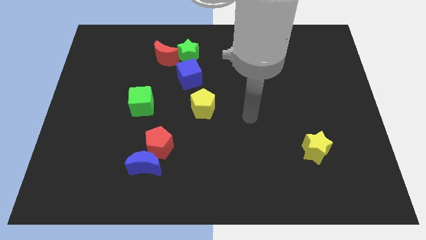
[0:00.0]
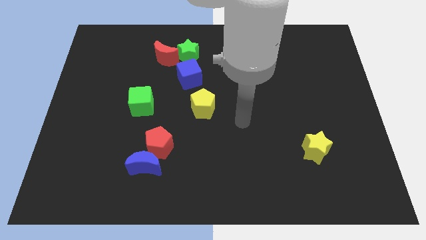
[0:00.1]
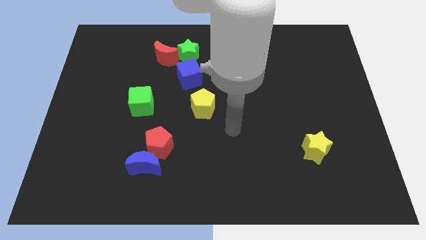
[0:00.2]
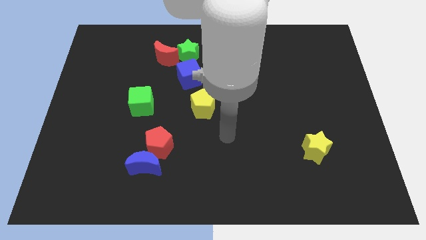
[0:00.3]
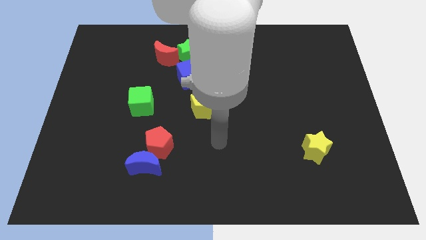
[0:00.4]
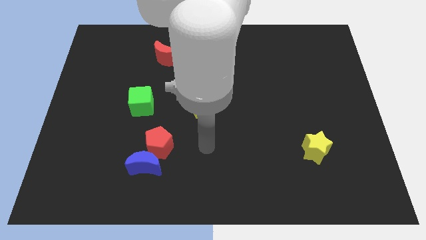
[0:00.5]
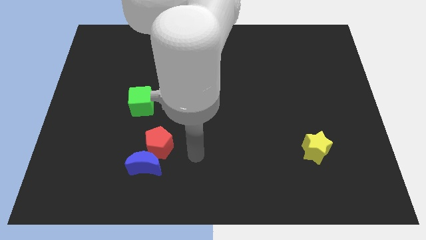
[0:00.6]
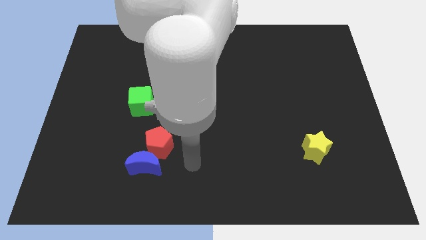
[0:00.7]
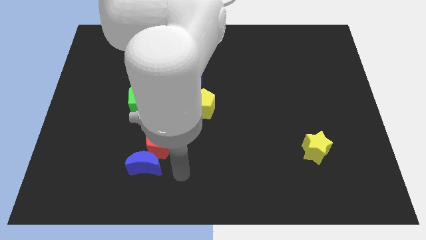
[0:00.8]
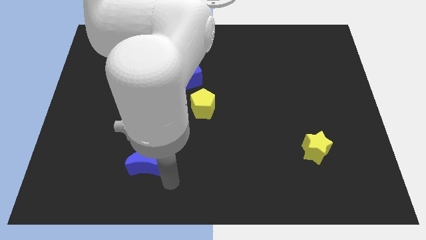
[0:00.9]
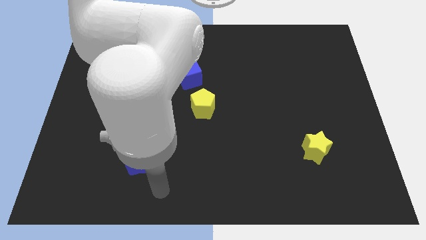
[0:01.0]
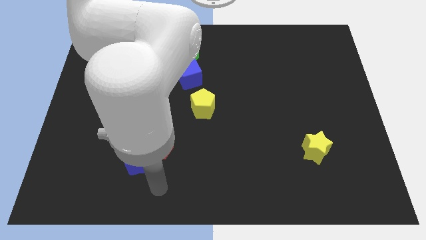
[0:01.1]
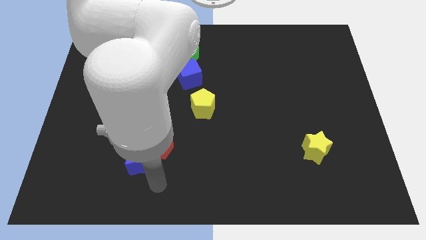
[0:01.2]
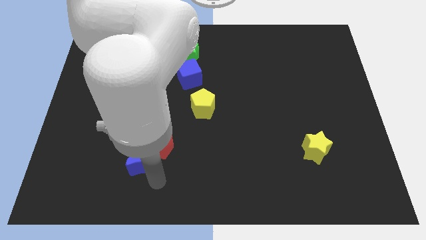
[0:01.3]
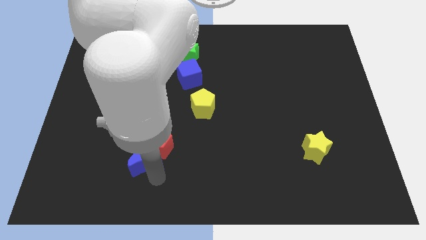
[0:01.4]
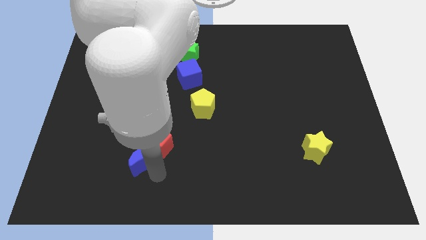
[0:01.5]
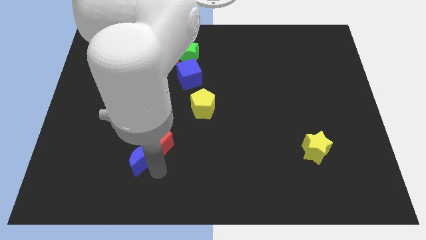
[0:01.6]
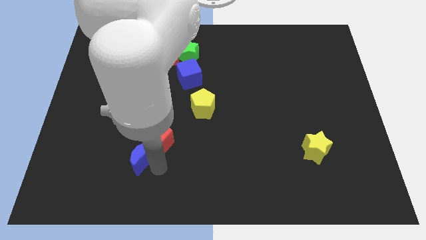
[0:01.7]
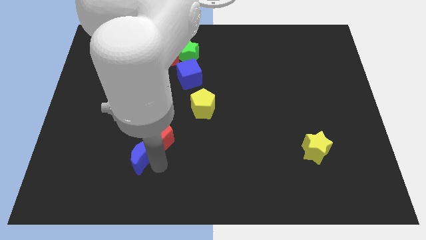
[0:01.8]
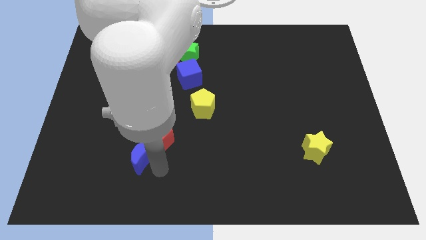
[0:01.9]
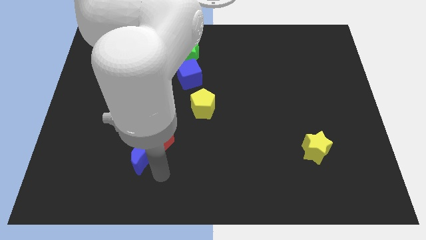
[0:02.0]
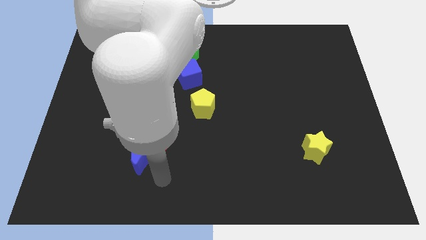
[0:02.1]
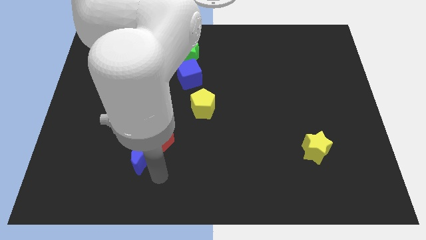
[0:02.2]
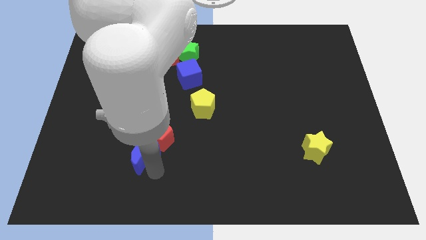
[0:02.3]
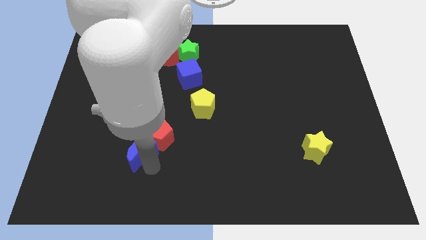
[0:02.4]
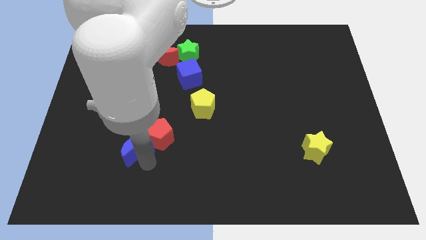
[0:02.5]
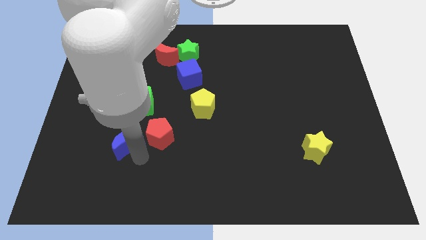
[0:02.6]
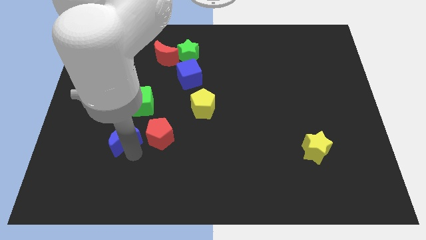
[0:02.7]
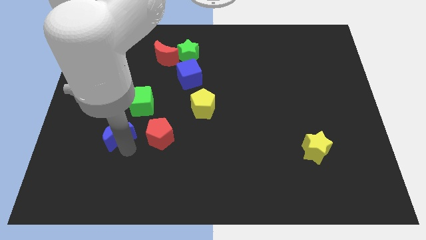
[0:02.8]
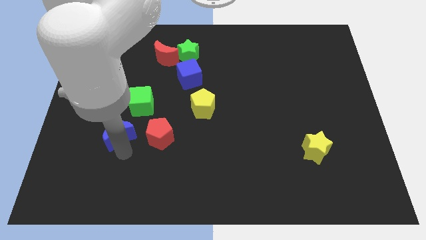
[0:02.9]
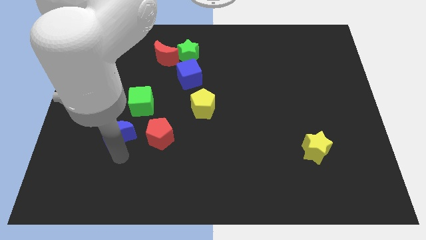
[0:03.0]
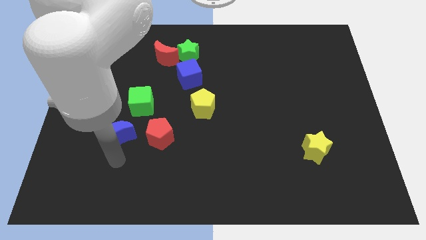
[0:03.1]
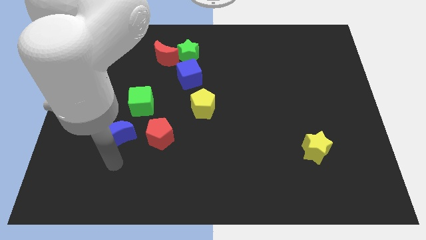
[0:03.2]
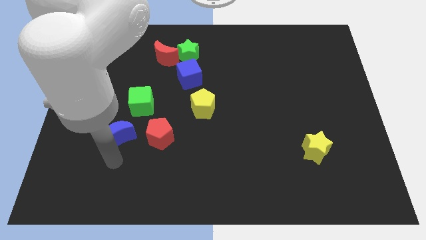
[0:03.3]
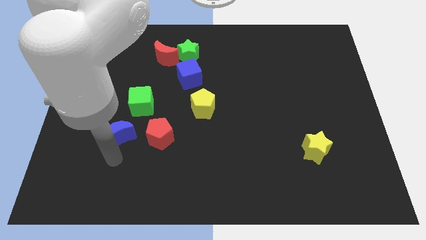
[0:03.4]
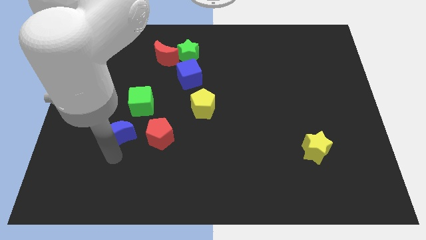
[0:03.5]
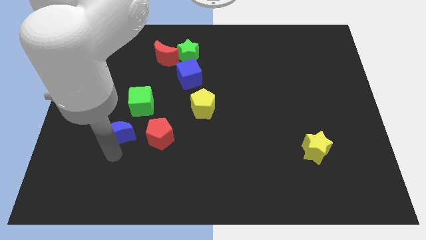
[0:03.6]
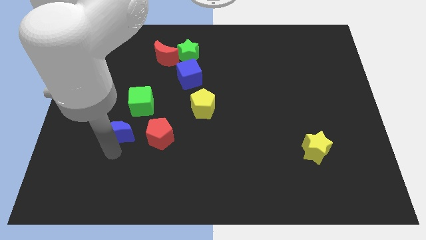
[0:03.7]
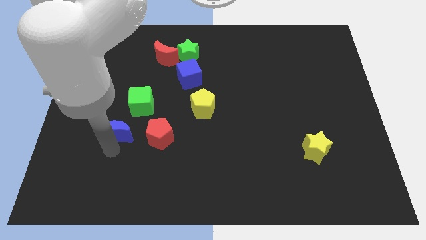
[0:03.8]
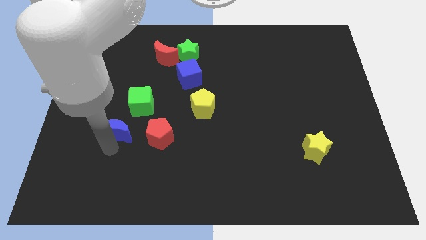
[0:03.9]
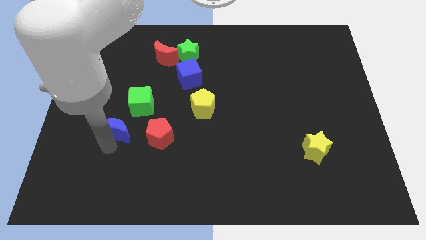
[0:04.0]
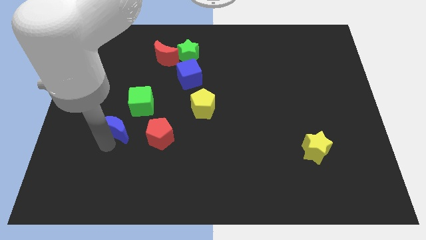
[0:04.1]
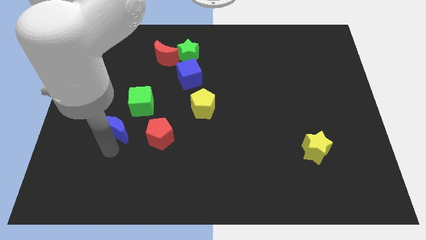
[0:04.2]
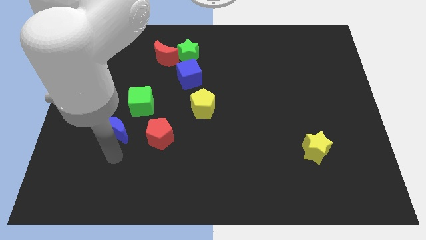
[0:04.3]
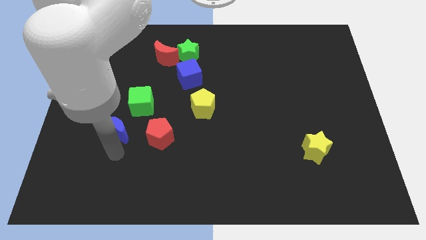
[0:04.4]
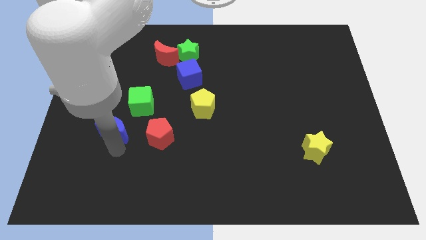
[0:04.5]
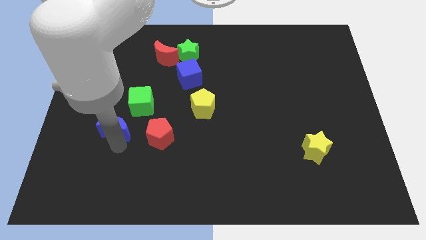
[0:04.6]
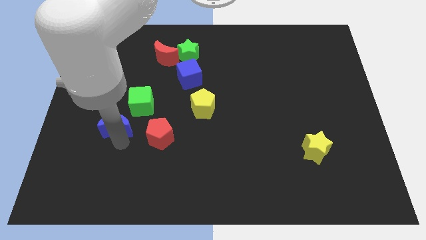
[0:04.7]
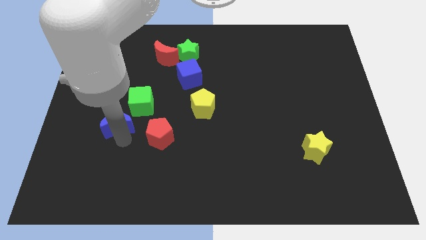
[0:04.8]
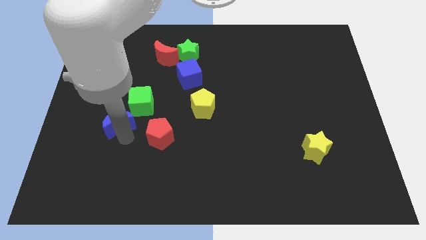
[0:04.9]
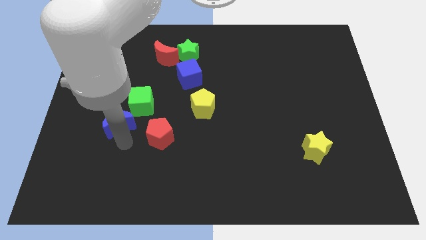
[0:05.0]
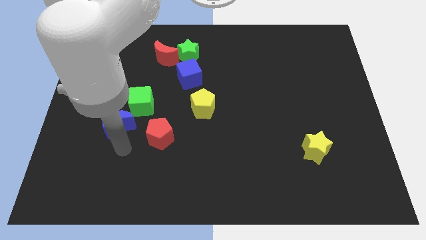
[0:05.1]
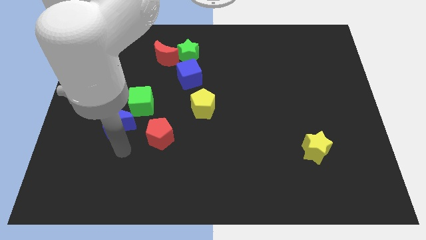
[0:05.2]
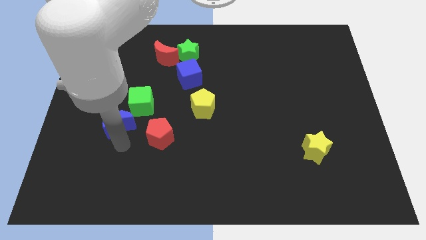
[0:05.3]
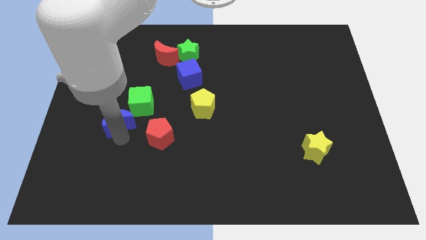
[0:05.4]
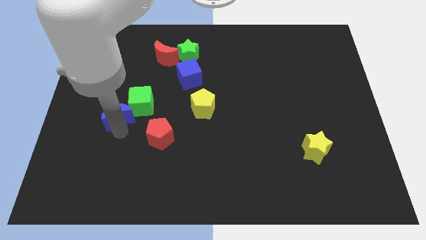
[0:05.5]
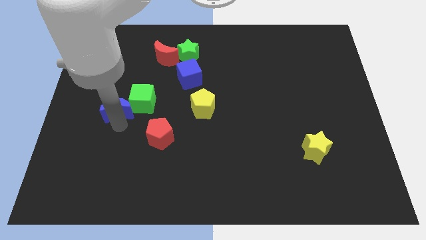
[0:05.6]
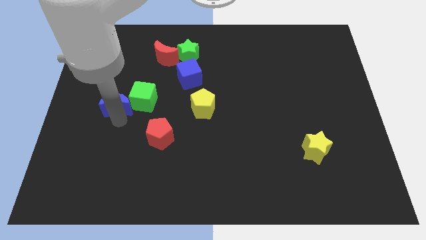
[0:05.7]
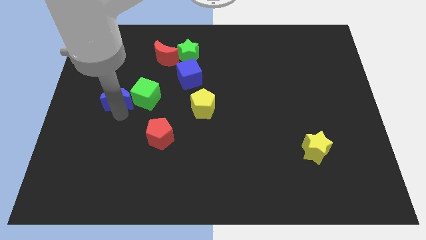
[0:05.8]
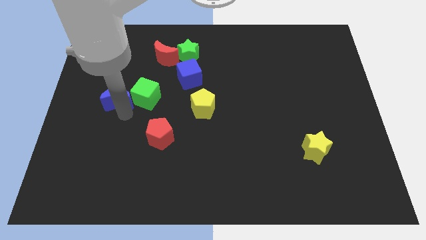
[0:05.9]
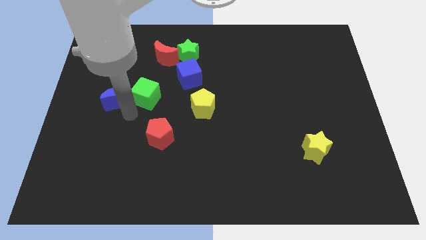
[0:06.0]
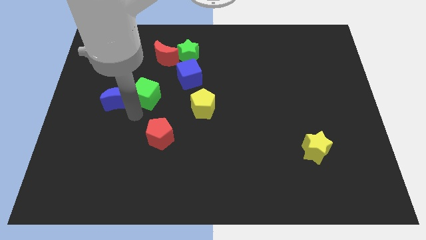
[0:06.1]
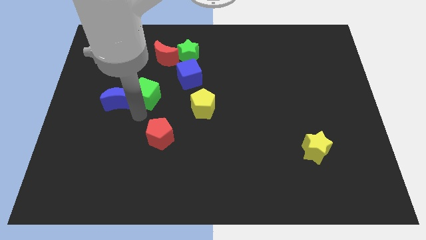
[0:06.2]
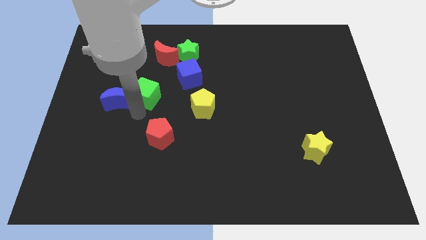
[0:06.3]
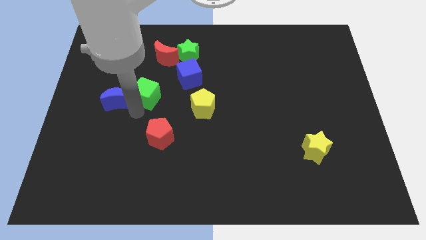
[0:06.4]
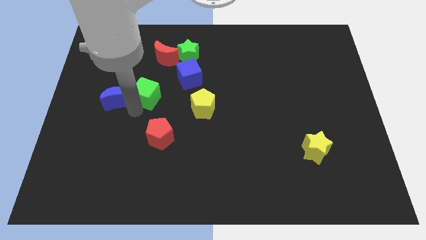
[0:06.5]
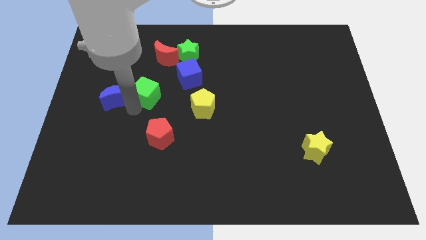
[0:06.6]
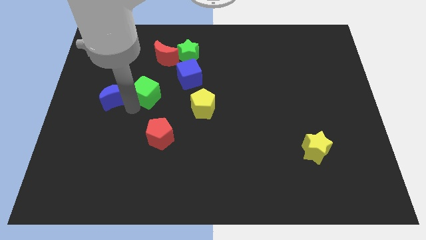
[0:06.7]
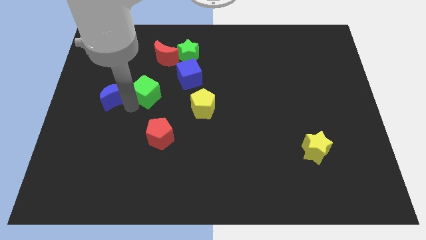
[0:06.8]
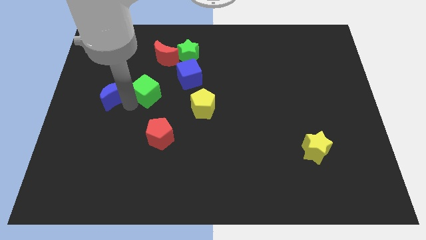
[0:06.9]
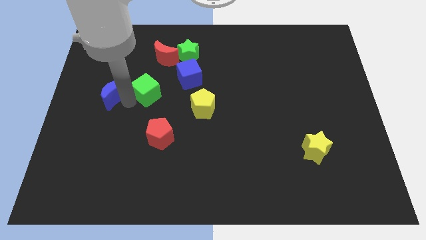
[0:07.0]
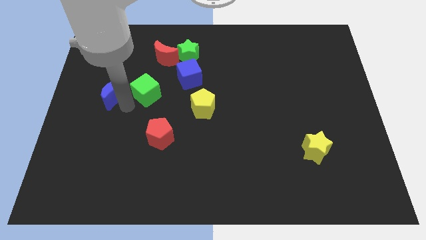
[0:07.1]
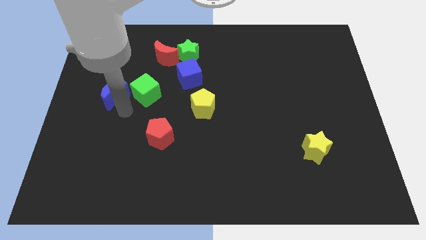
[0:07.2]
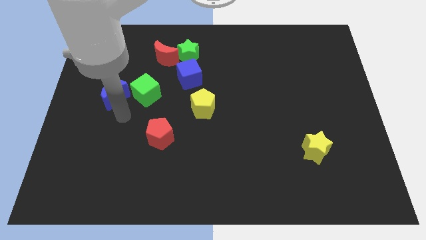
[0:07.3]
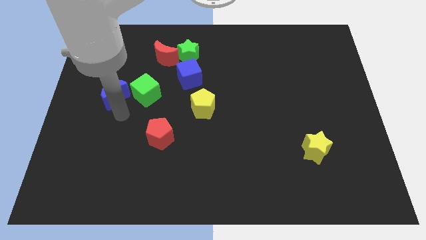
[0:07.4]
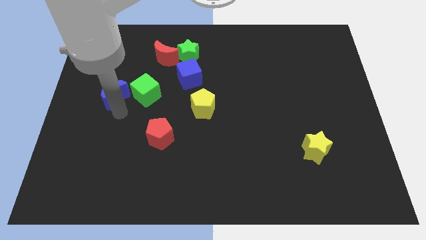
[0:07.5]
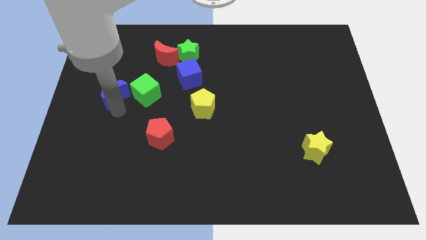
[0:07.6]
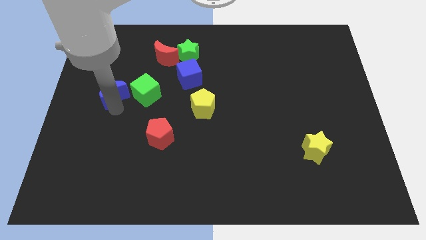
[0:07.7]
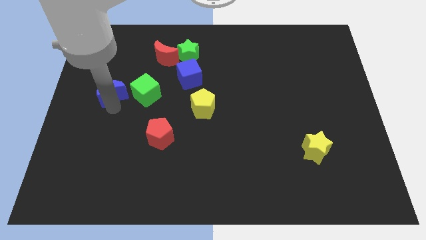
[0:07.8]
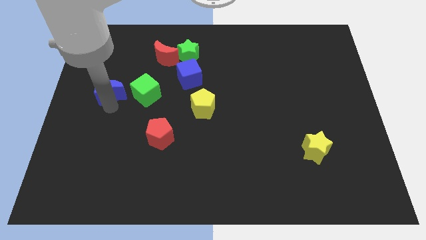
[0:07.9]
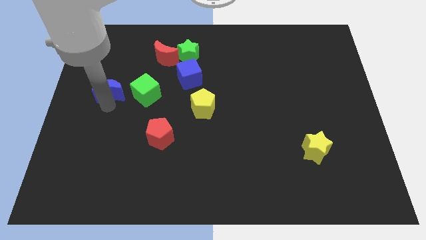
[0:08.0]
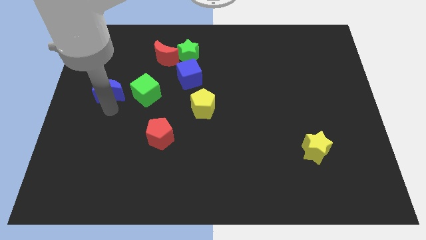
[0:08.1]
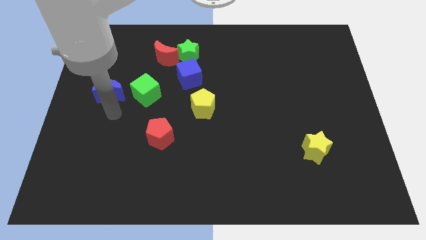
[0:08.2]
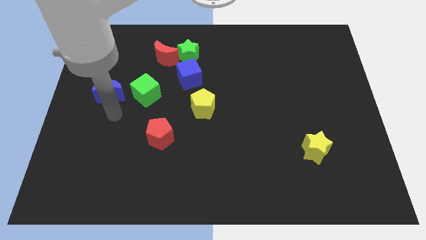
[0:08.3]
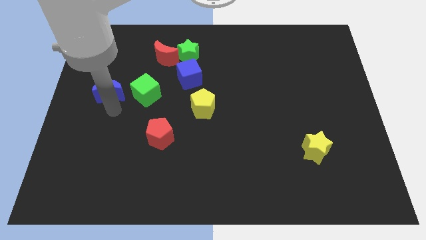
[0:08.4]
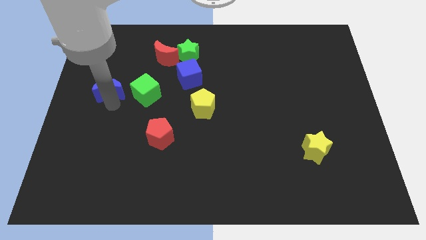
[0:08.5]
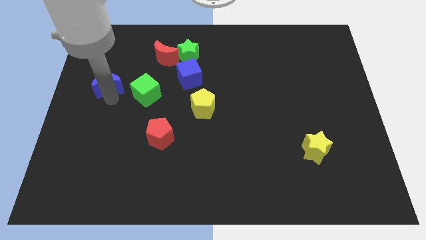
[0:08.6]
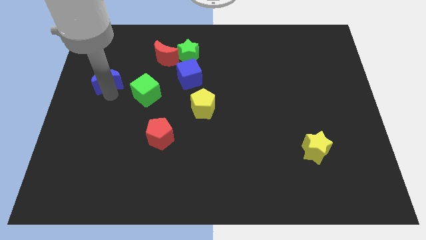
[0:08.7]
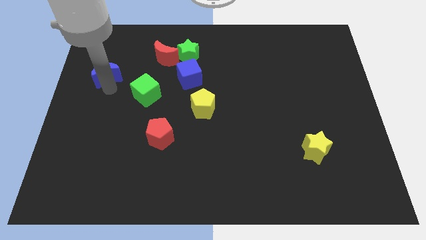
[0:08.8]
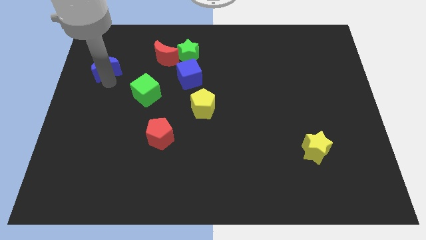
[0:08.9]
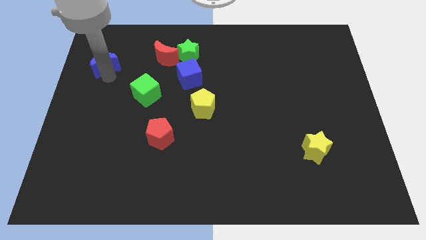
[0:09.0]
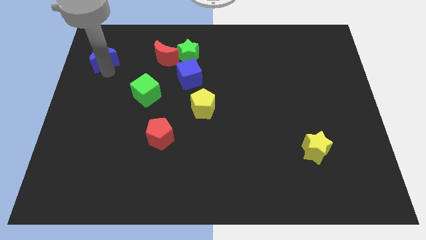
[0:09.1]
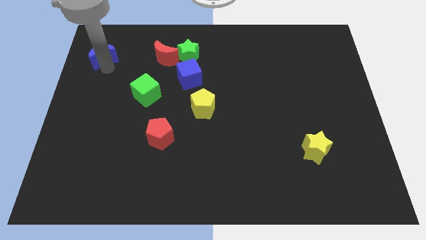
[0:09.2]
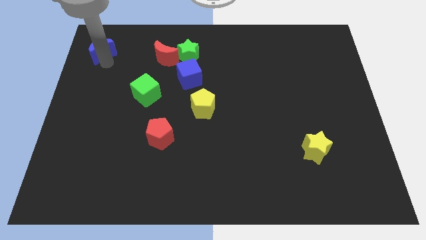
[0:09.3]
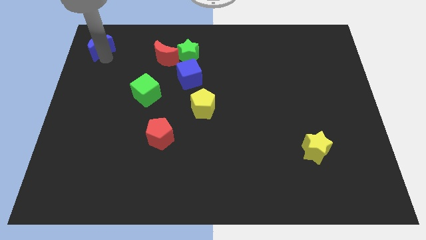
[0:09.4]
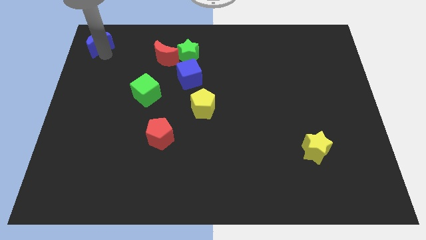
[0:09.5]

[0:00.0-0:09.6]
put the blue moon to the top left corner
